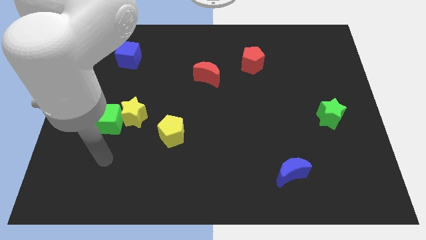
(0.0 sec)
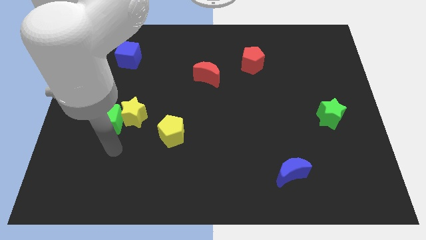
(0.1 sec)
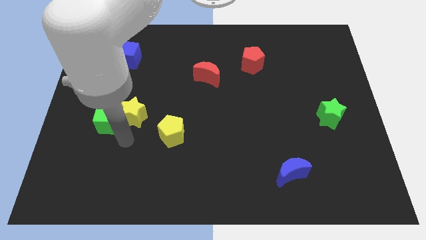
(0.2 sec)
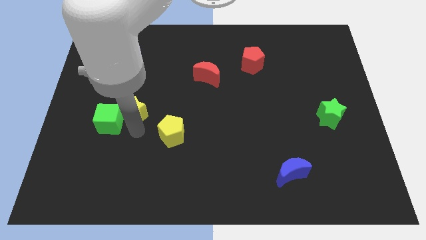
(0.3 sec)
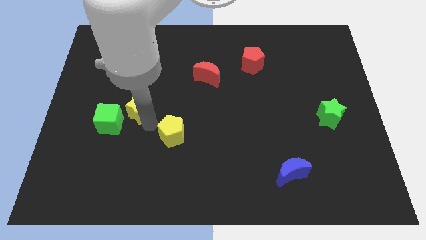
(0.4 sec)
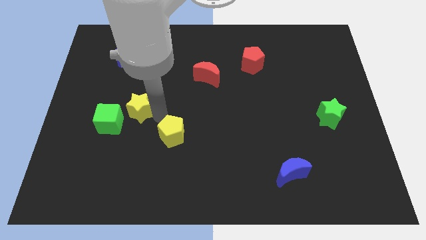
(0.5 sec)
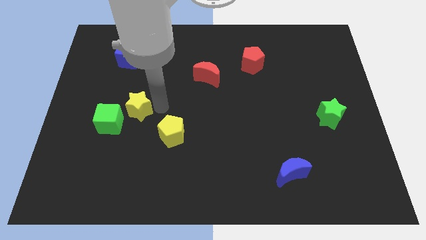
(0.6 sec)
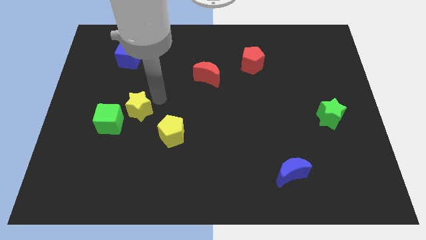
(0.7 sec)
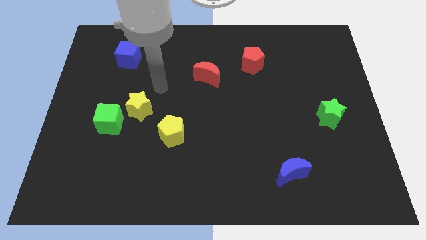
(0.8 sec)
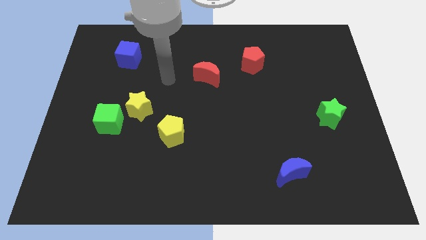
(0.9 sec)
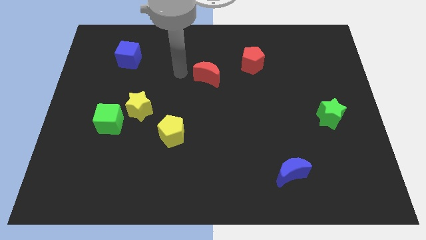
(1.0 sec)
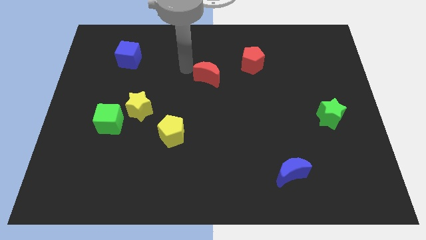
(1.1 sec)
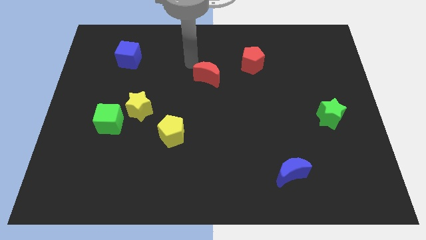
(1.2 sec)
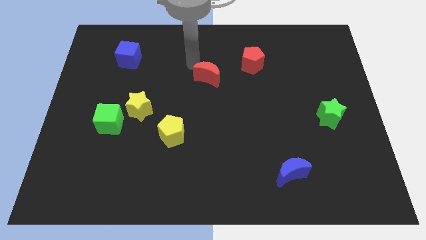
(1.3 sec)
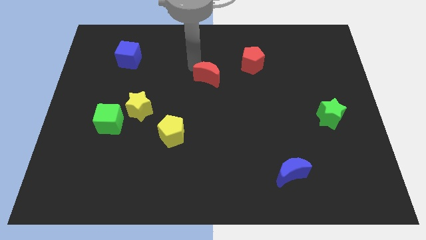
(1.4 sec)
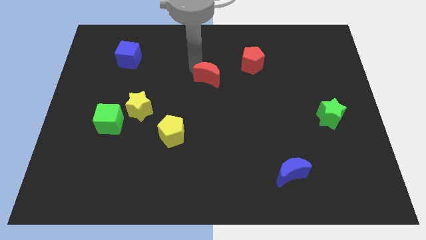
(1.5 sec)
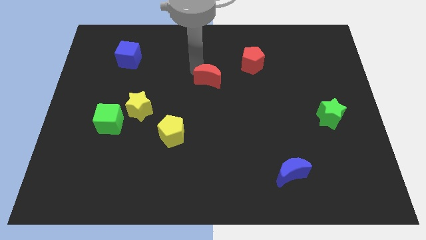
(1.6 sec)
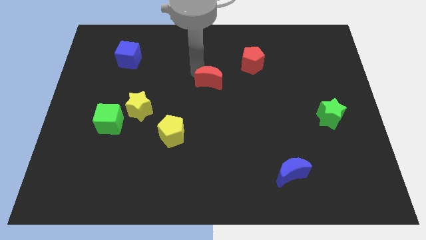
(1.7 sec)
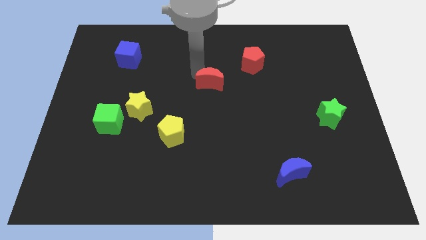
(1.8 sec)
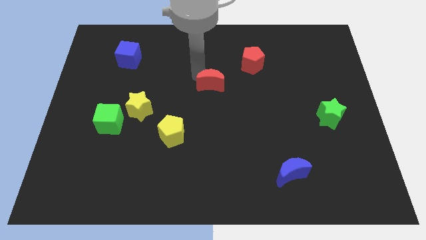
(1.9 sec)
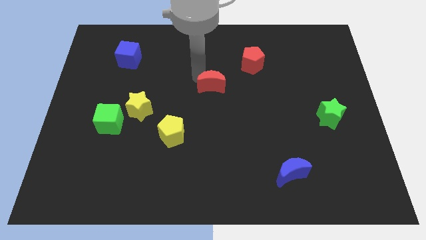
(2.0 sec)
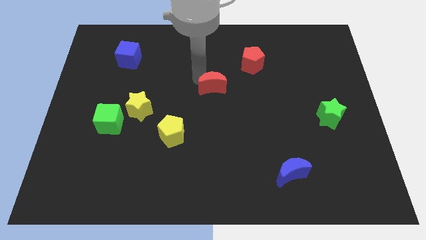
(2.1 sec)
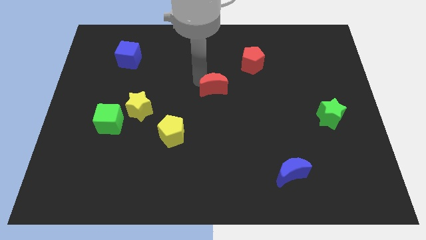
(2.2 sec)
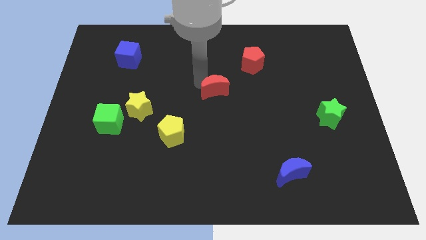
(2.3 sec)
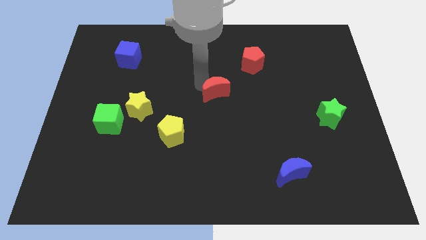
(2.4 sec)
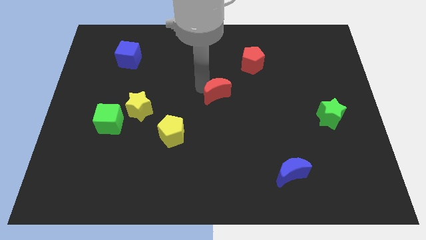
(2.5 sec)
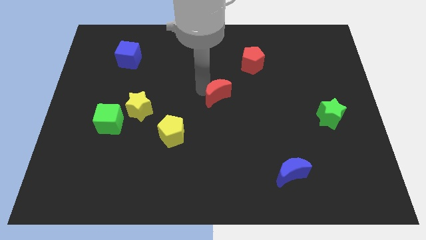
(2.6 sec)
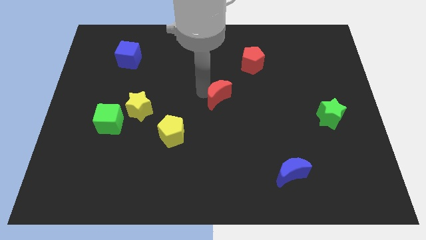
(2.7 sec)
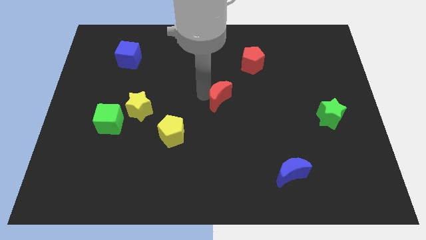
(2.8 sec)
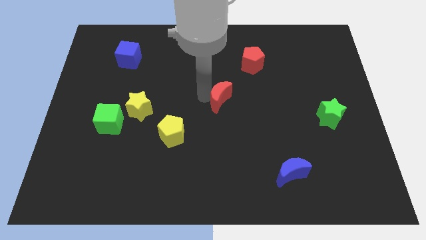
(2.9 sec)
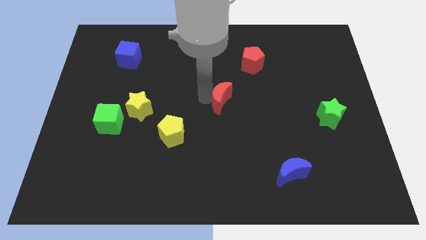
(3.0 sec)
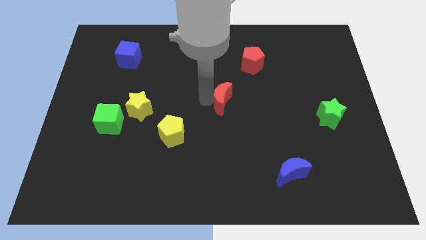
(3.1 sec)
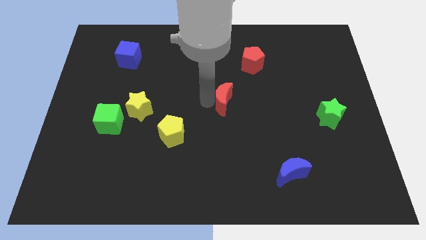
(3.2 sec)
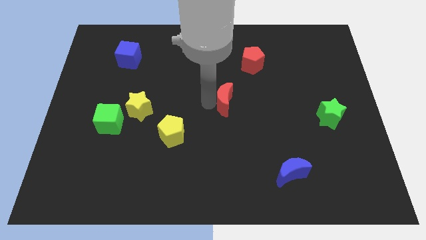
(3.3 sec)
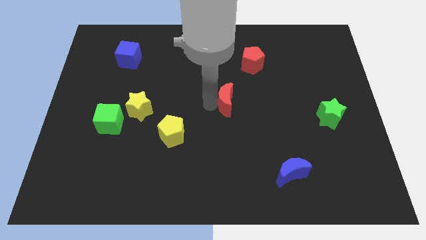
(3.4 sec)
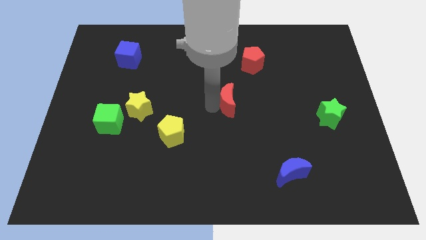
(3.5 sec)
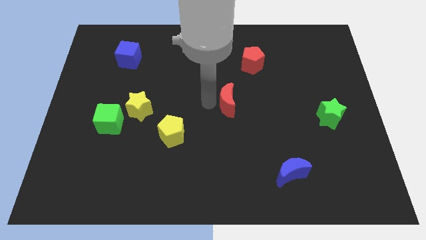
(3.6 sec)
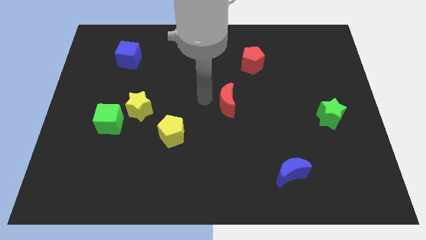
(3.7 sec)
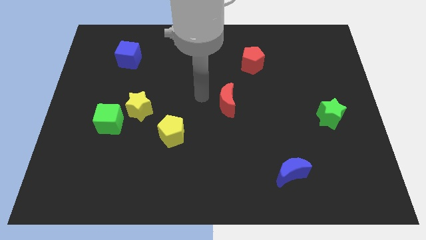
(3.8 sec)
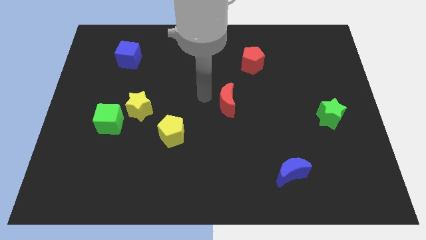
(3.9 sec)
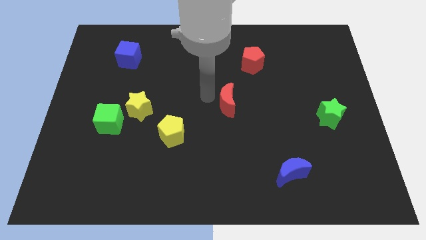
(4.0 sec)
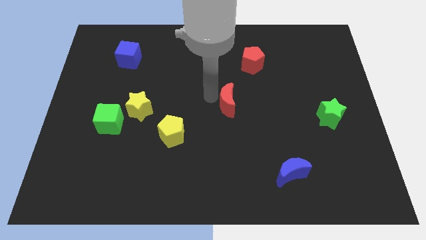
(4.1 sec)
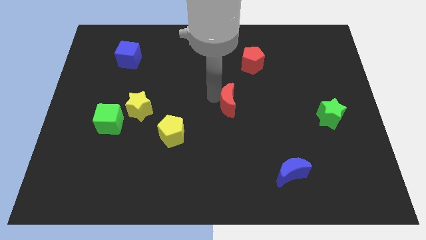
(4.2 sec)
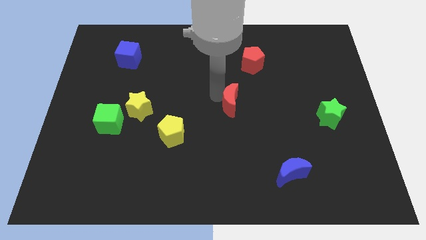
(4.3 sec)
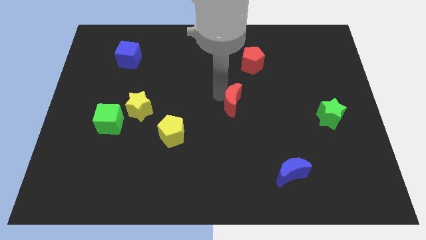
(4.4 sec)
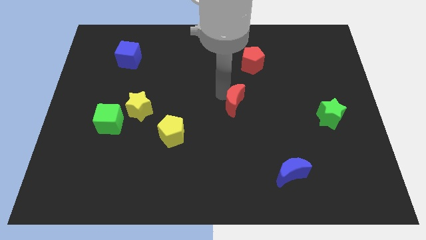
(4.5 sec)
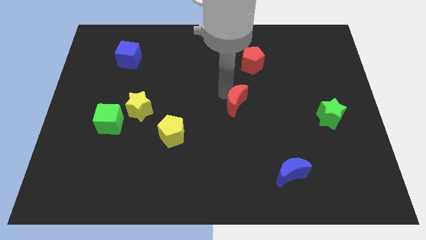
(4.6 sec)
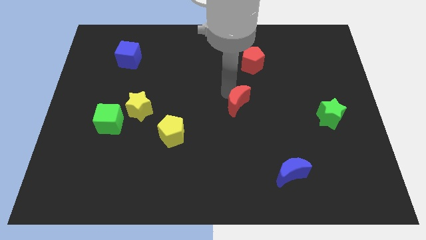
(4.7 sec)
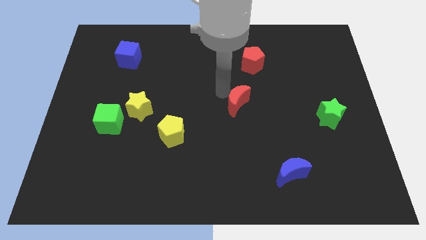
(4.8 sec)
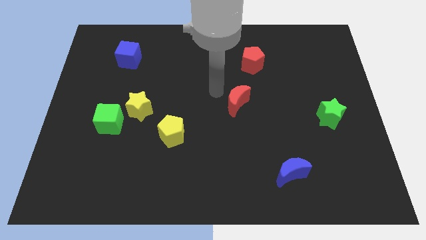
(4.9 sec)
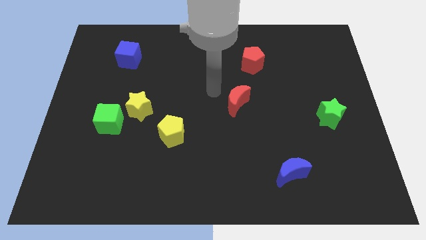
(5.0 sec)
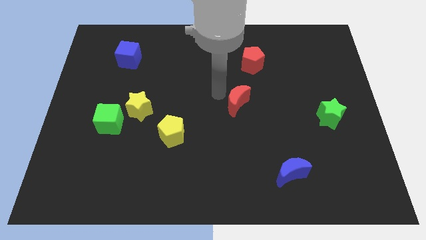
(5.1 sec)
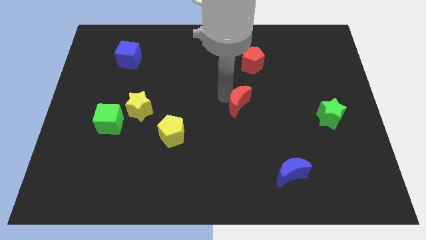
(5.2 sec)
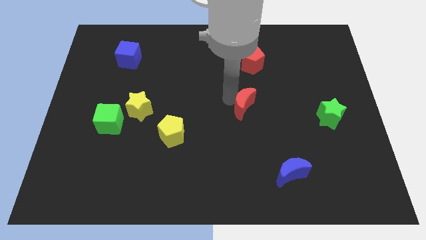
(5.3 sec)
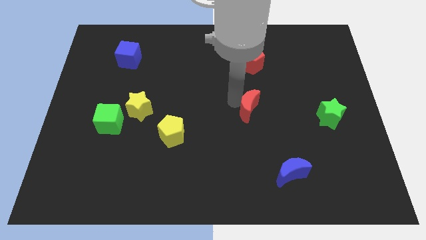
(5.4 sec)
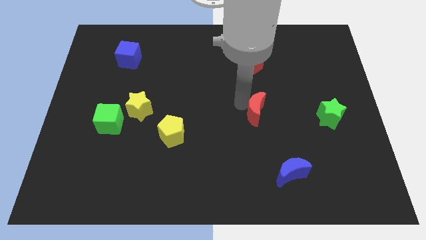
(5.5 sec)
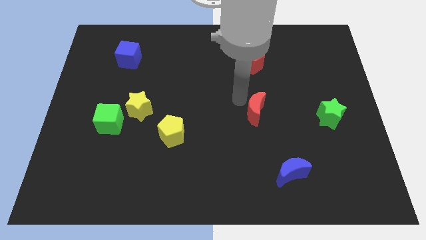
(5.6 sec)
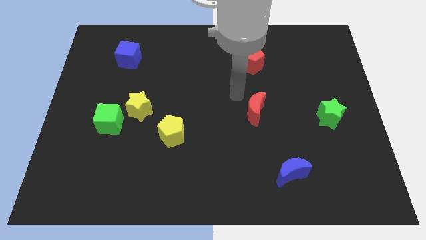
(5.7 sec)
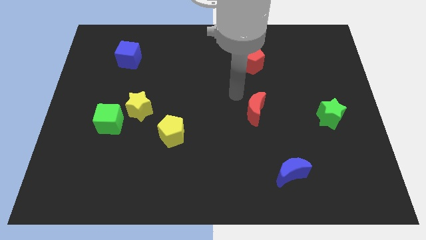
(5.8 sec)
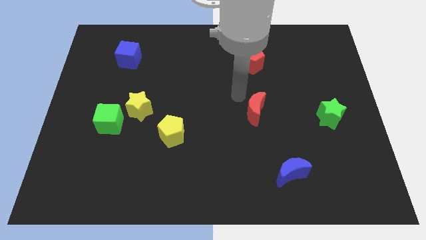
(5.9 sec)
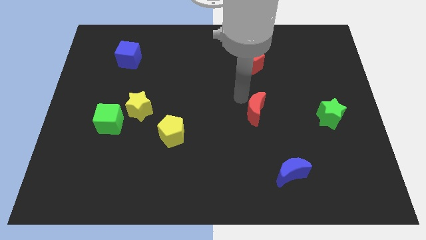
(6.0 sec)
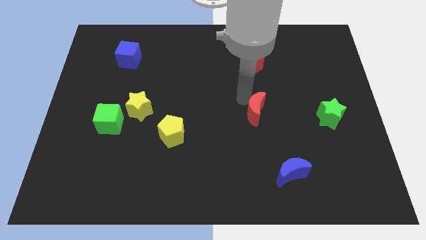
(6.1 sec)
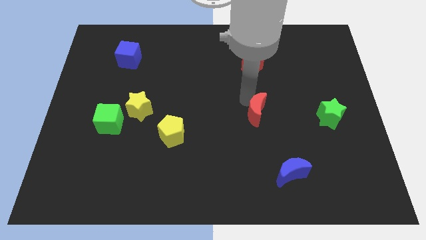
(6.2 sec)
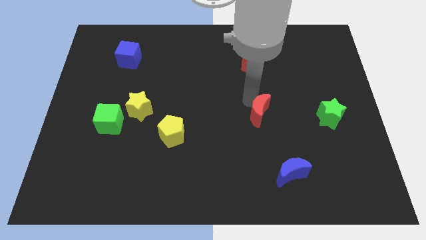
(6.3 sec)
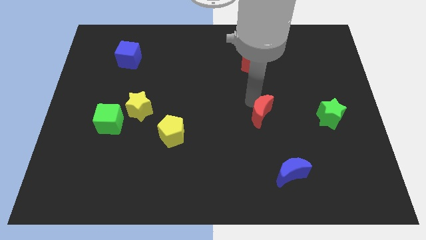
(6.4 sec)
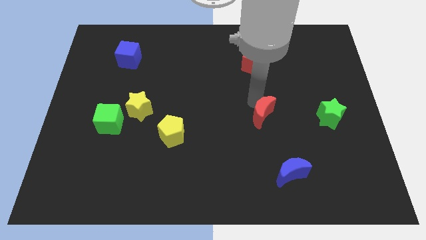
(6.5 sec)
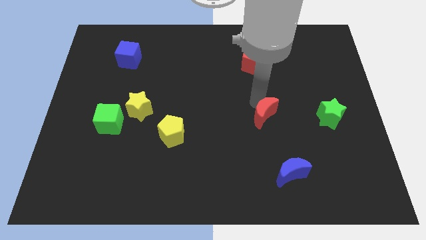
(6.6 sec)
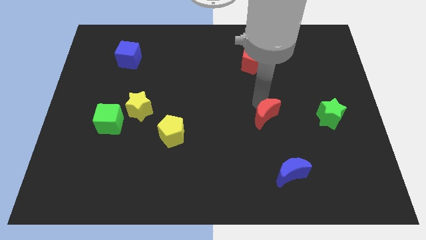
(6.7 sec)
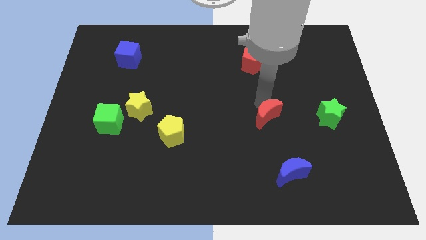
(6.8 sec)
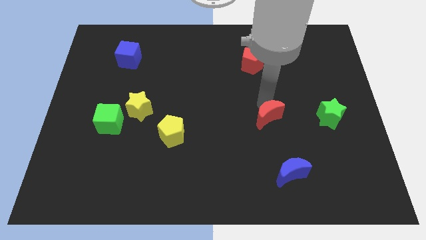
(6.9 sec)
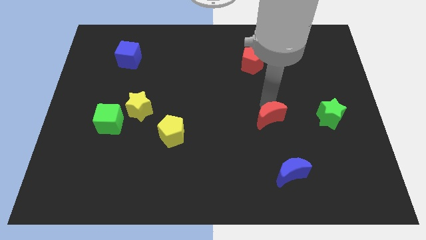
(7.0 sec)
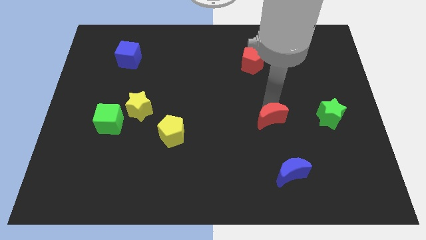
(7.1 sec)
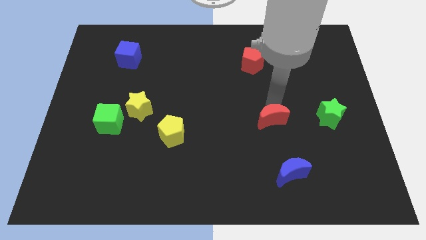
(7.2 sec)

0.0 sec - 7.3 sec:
slide the red moon downwards and then right

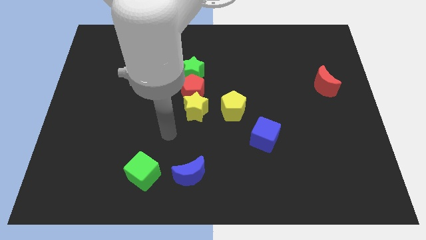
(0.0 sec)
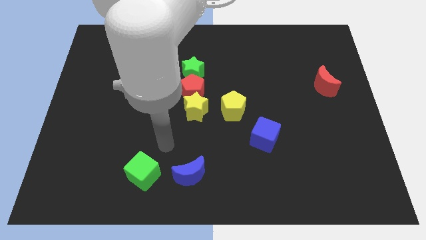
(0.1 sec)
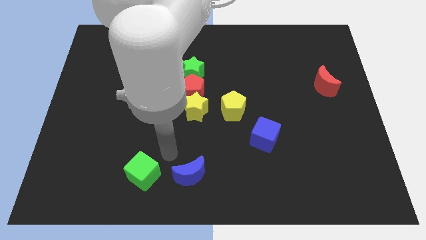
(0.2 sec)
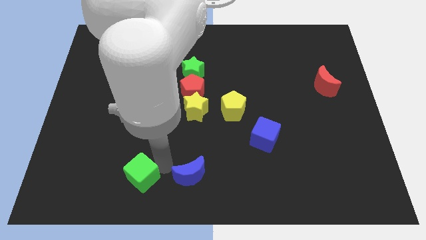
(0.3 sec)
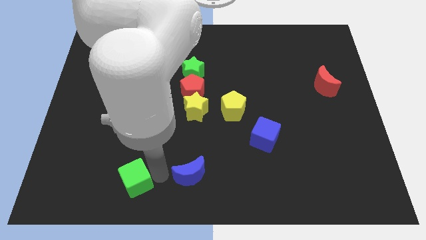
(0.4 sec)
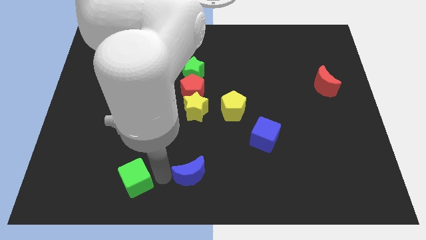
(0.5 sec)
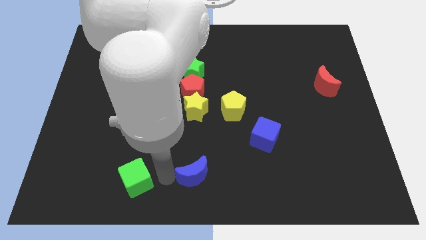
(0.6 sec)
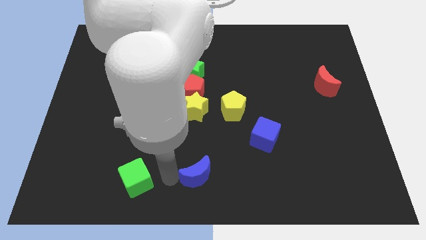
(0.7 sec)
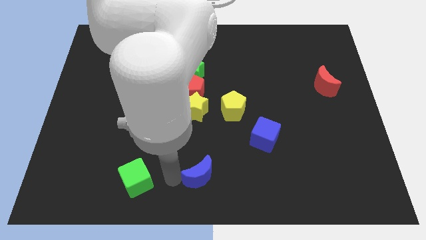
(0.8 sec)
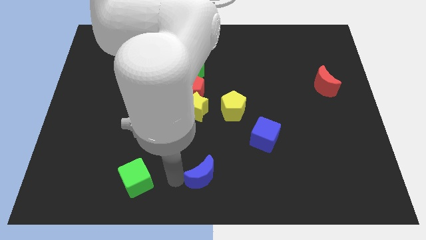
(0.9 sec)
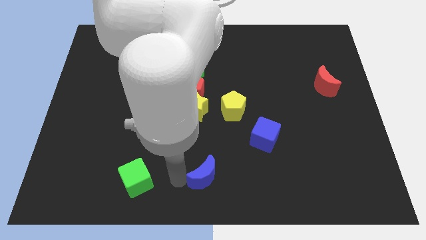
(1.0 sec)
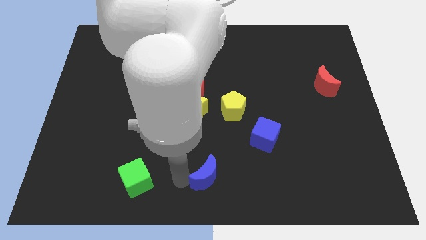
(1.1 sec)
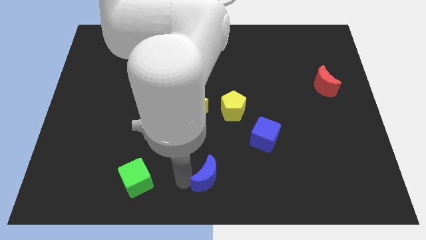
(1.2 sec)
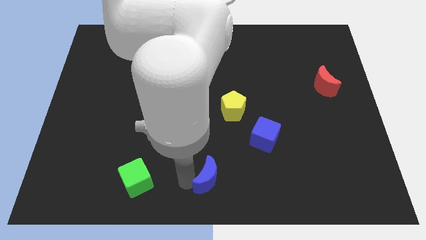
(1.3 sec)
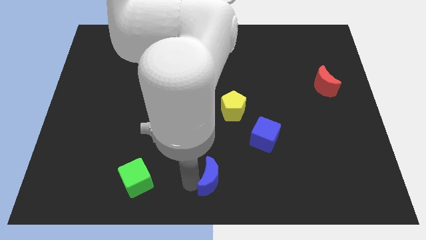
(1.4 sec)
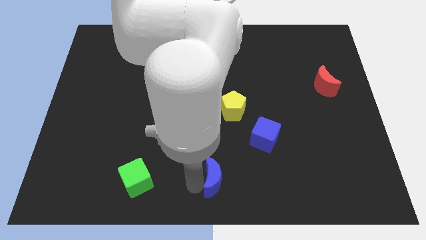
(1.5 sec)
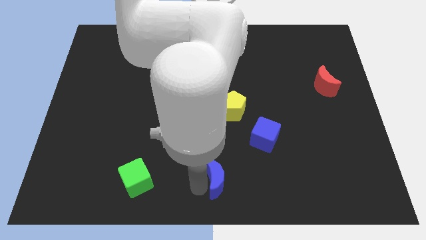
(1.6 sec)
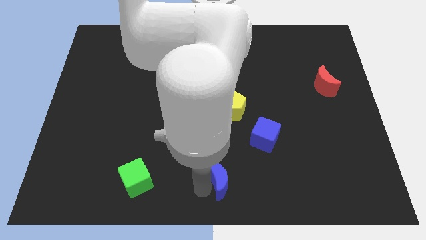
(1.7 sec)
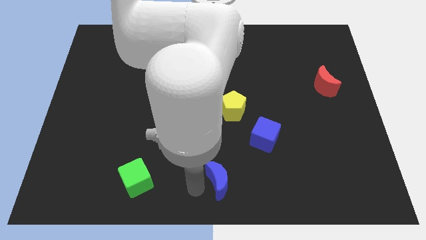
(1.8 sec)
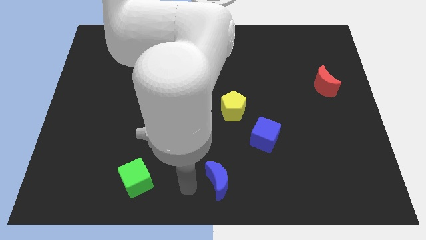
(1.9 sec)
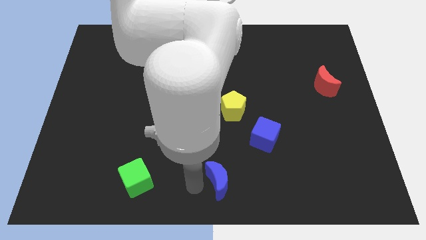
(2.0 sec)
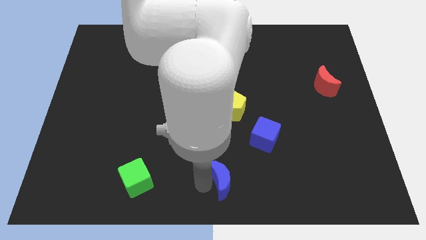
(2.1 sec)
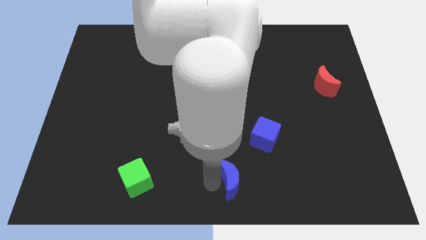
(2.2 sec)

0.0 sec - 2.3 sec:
push the blue moon a little bit right
